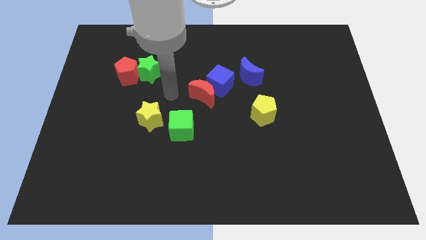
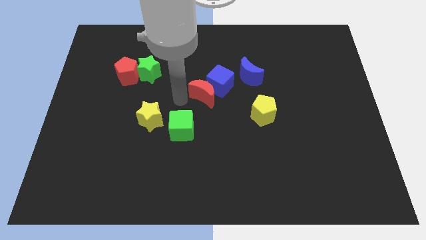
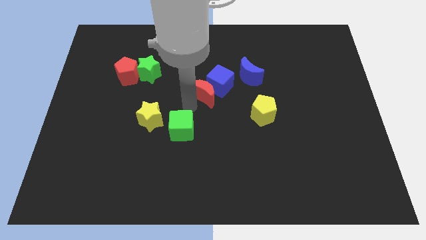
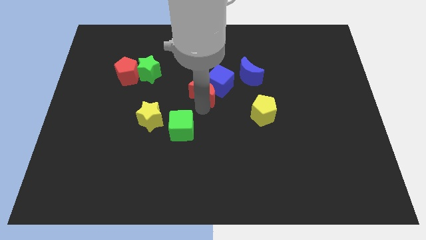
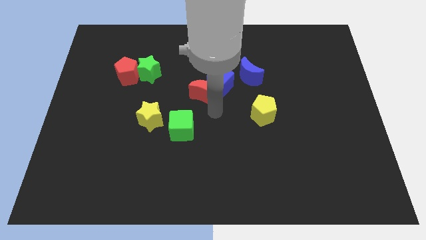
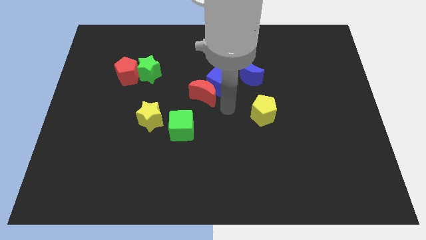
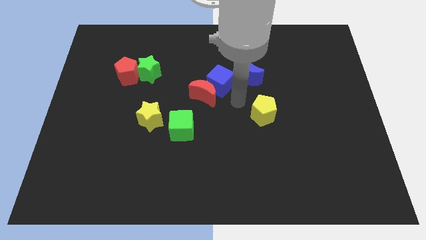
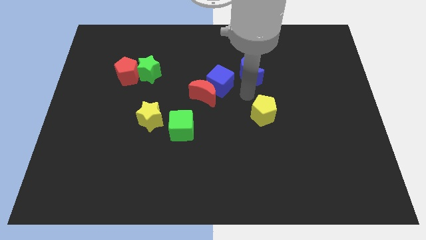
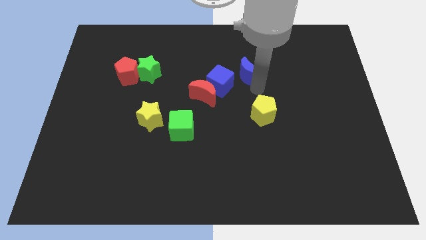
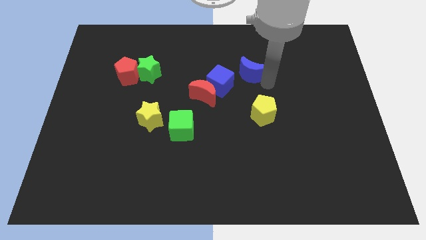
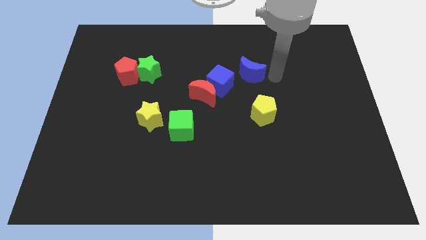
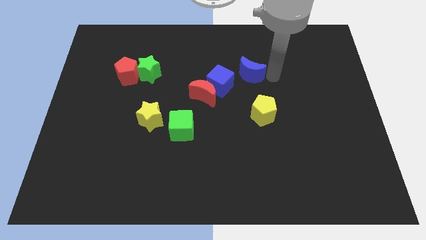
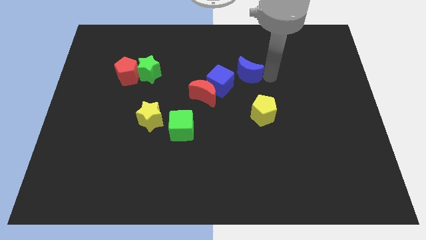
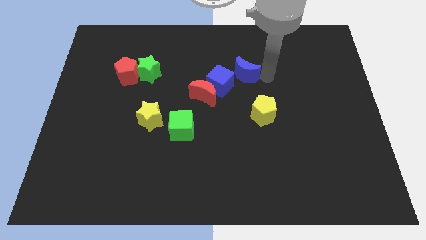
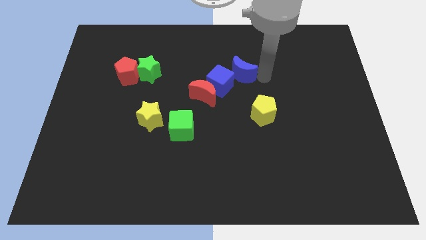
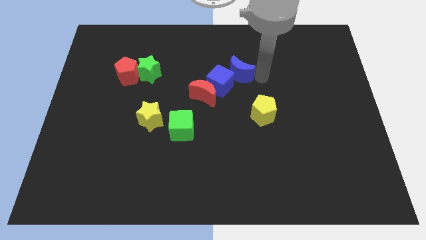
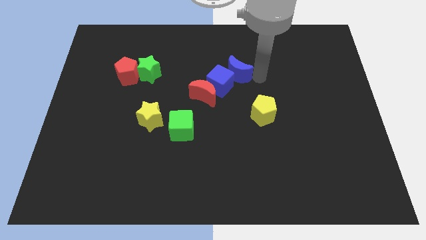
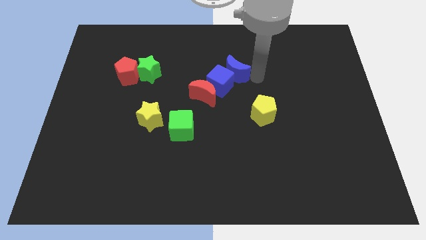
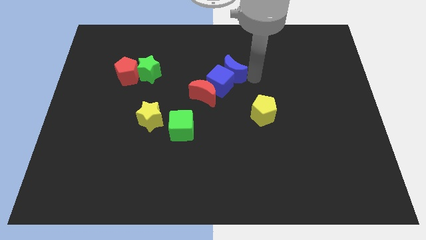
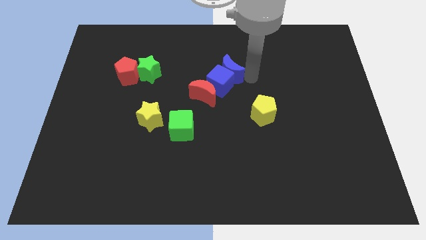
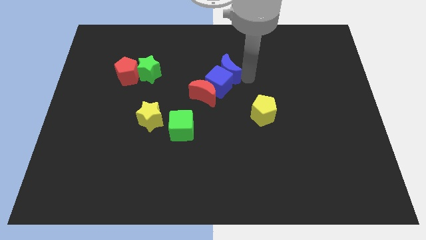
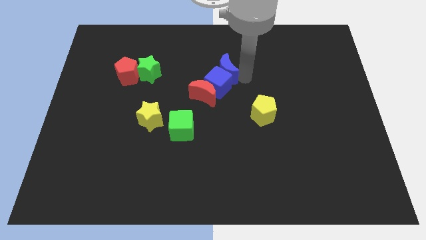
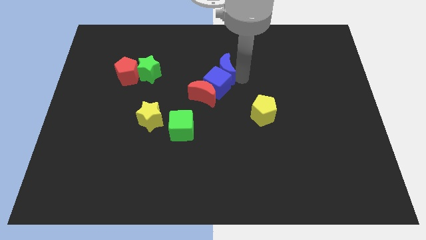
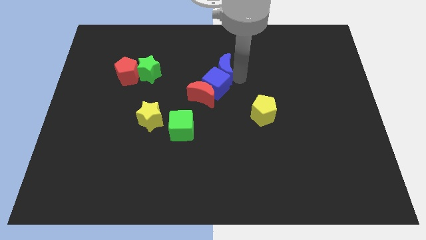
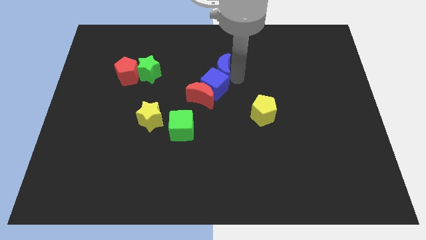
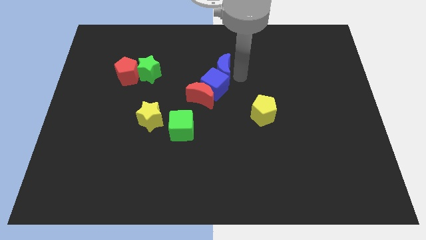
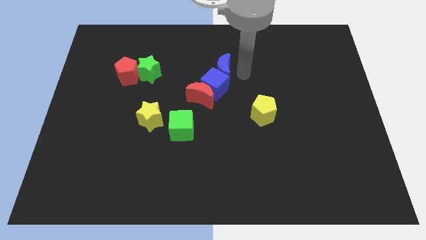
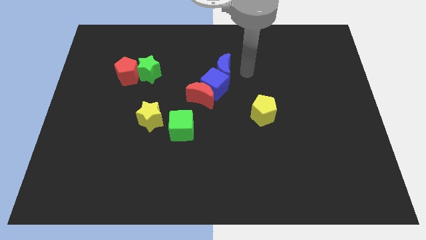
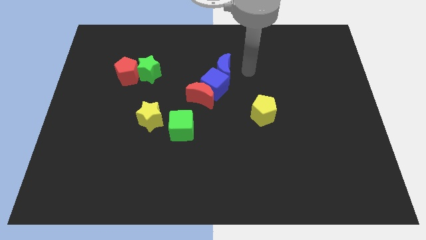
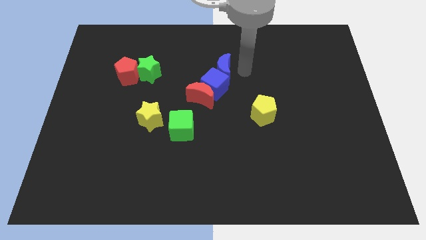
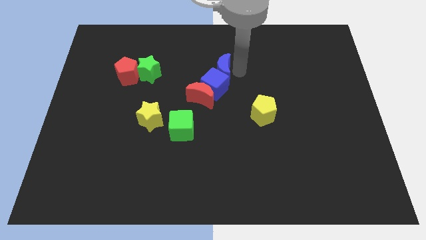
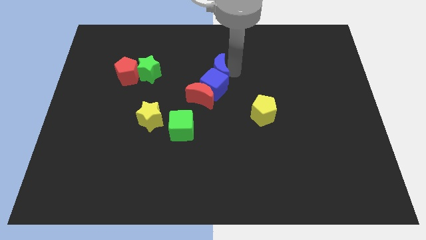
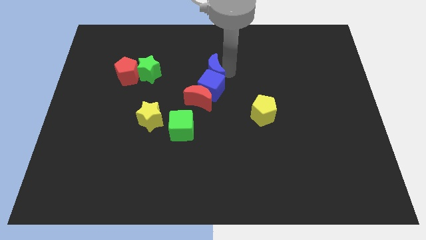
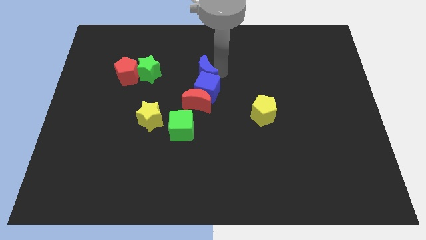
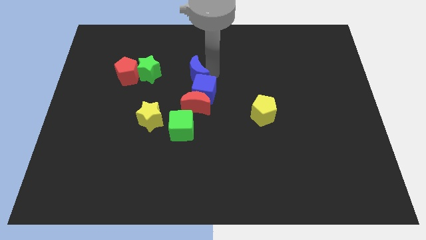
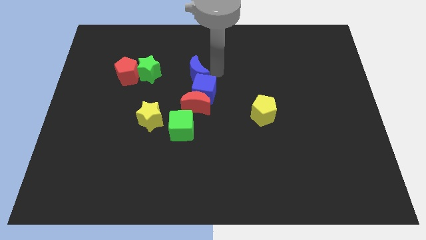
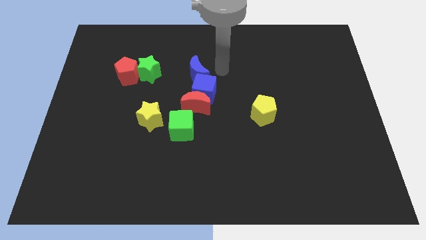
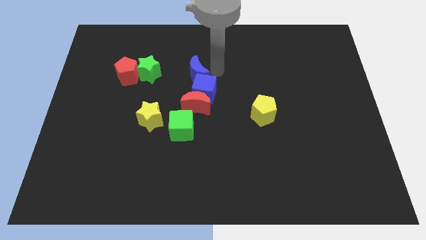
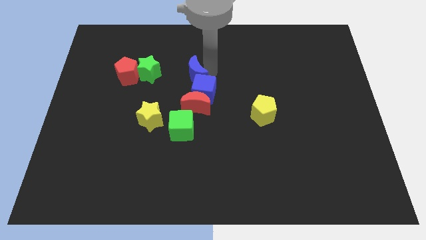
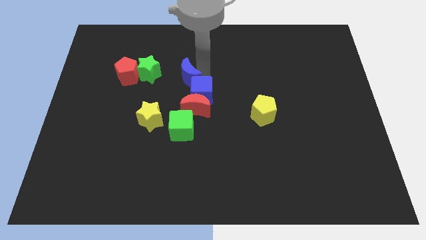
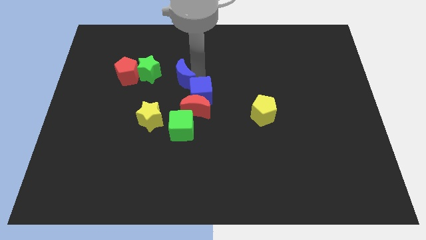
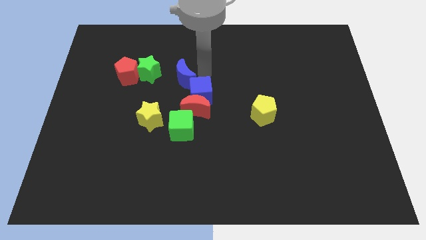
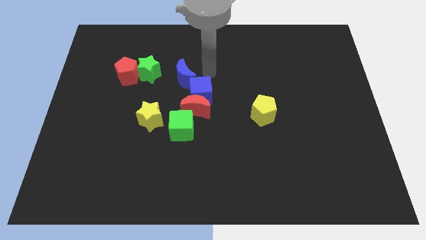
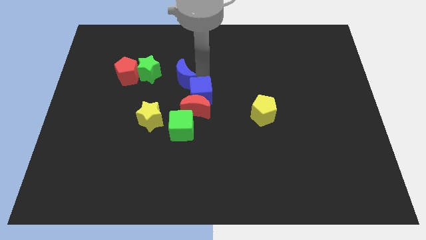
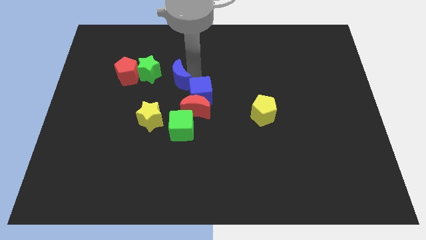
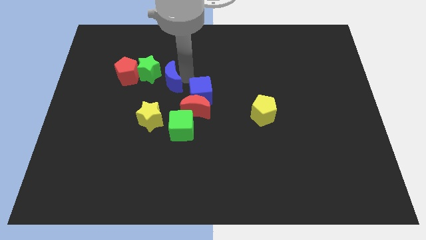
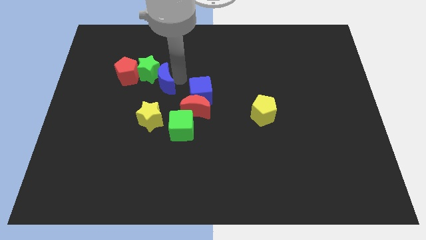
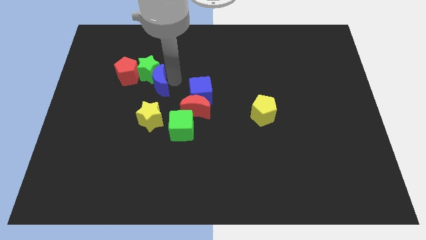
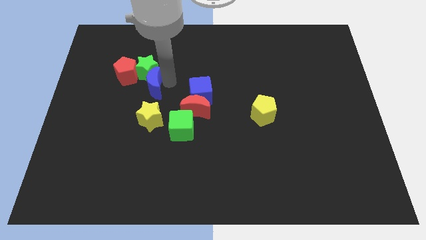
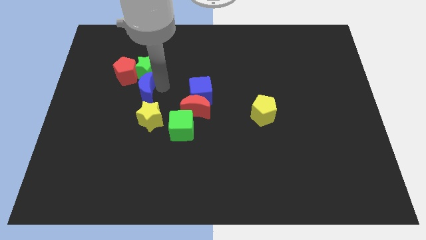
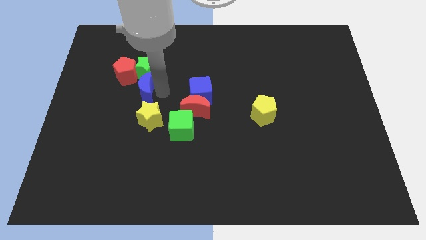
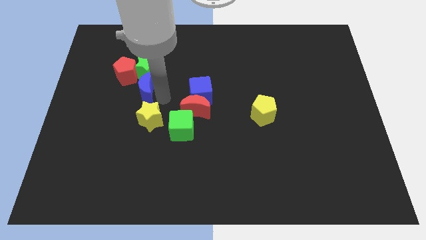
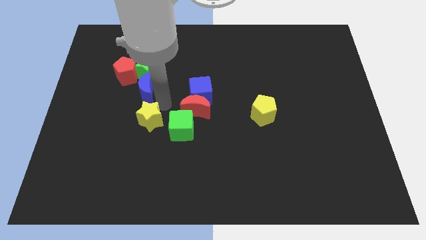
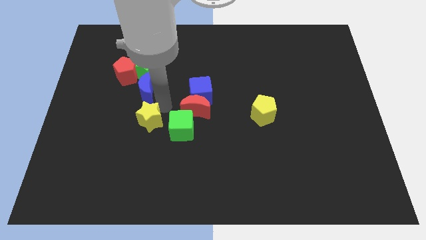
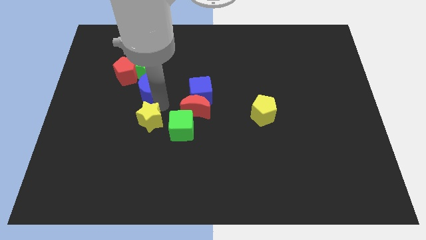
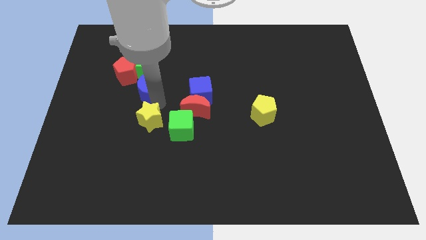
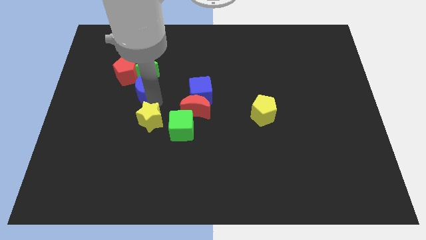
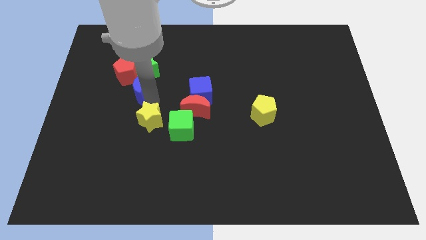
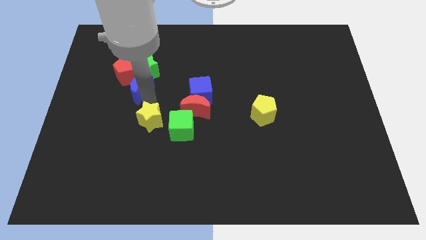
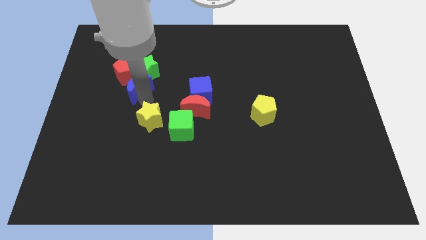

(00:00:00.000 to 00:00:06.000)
move the blue moon to the red pentagon

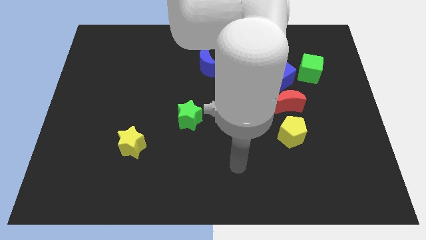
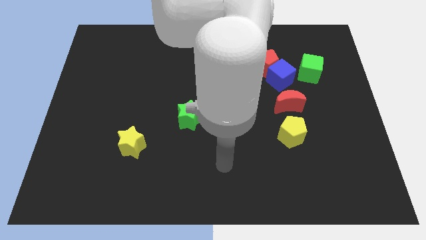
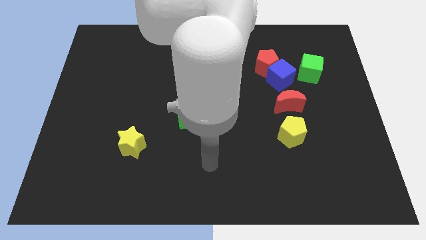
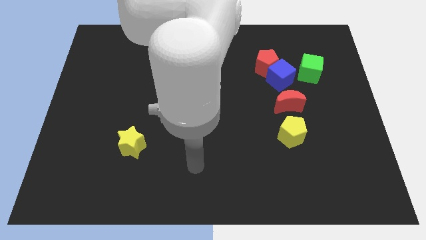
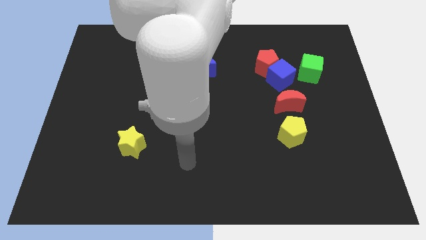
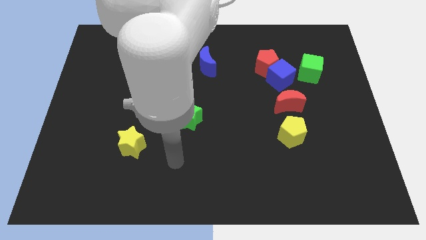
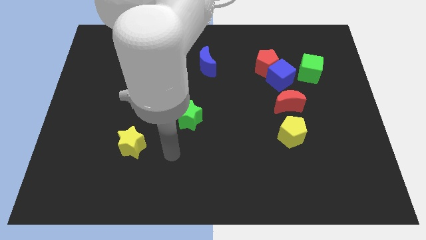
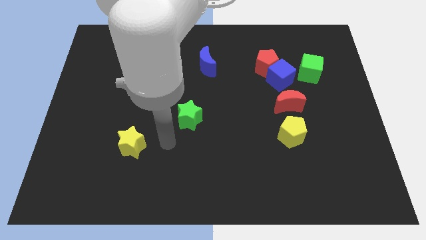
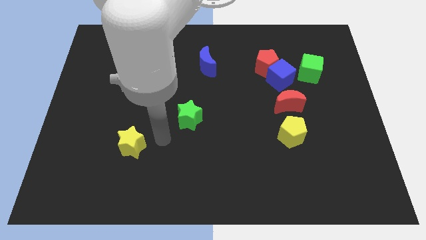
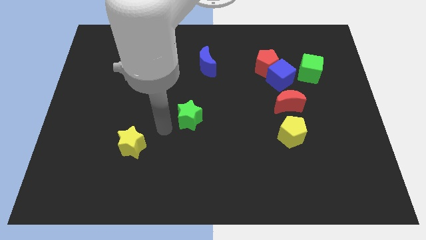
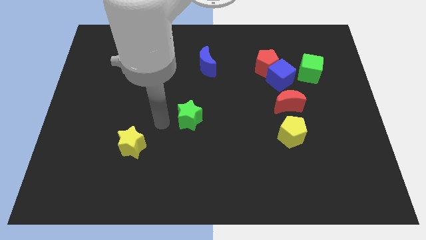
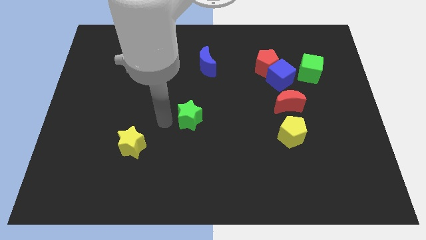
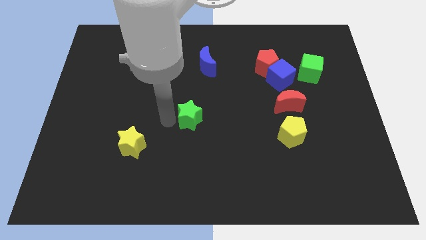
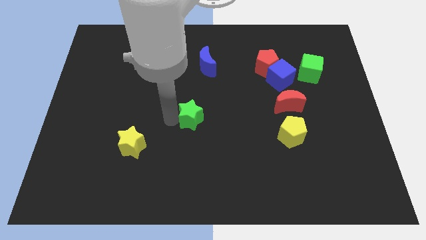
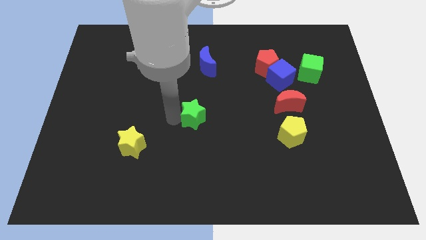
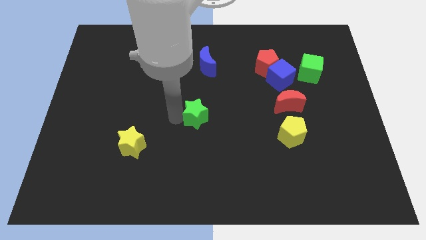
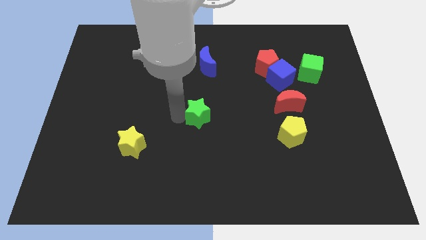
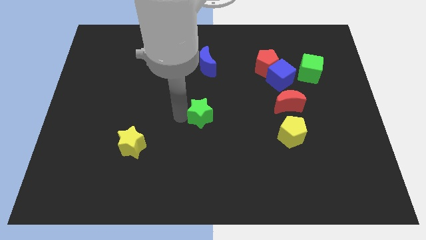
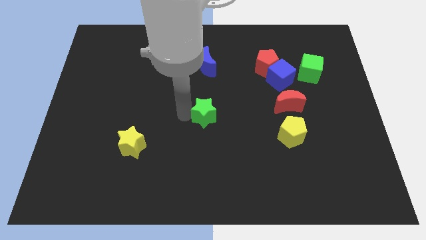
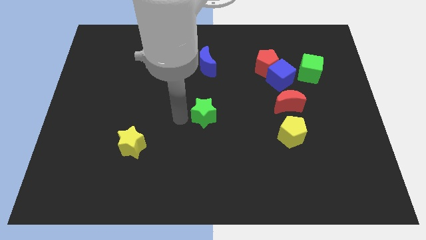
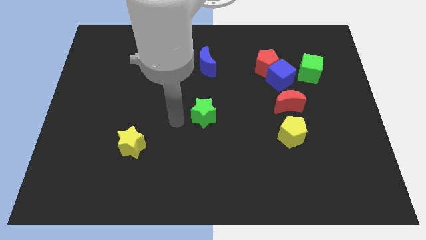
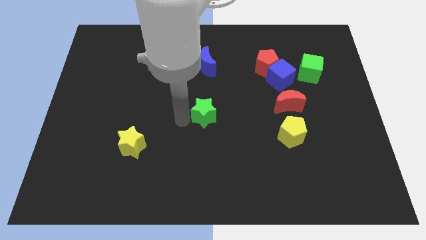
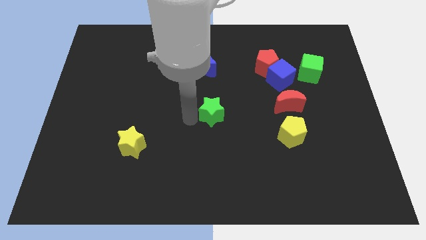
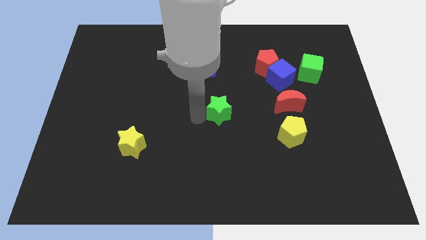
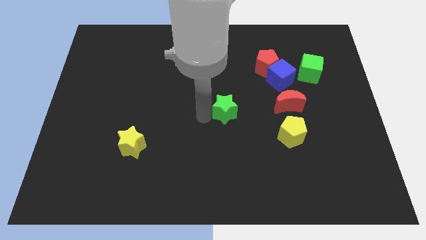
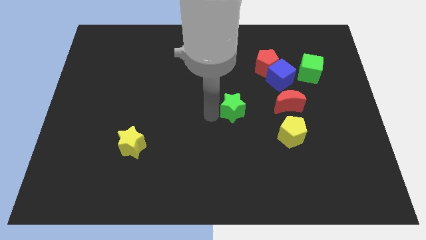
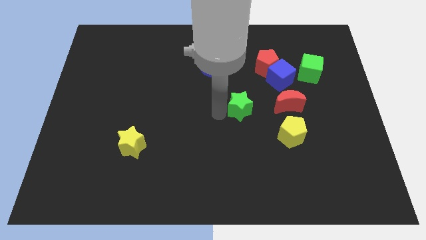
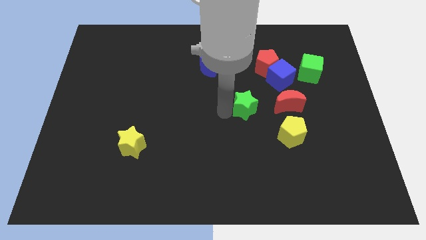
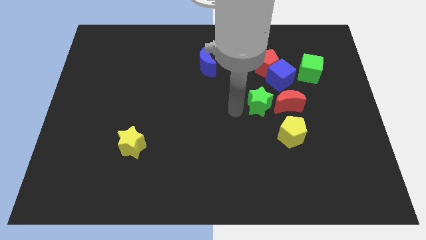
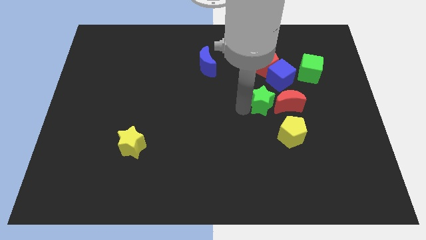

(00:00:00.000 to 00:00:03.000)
slide the green star next to the red moon
